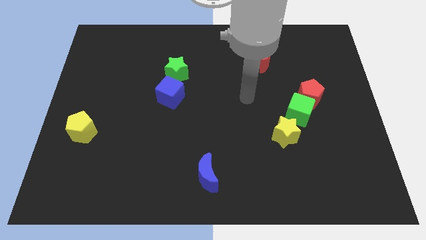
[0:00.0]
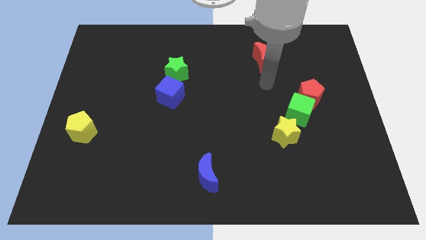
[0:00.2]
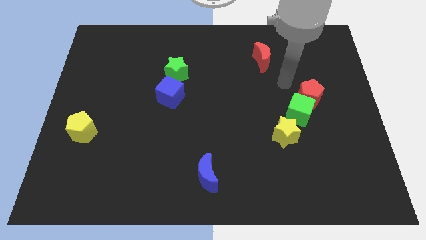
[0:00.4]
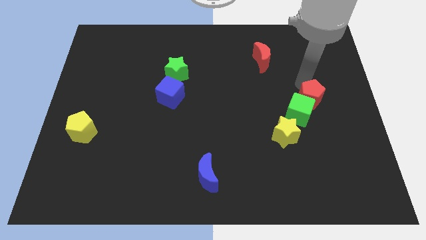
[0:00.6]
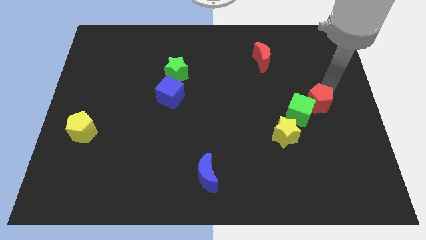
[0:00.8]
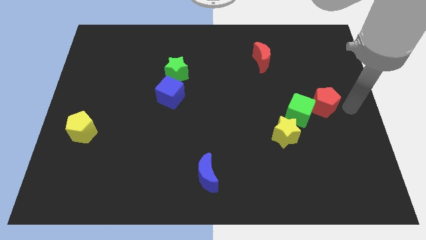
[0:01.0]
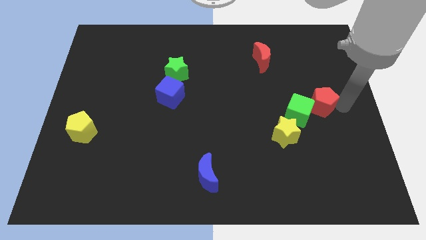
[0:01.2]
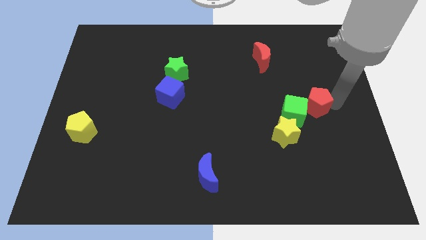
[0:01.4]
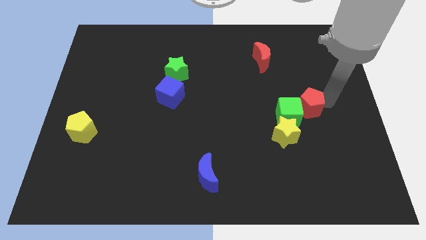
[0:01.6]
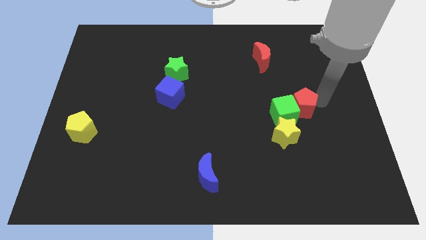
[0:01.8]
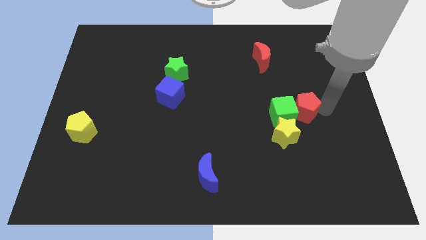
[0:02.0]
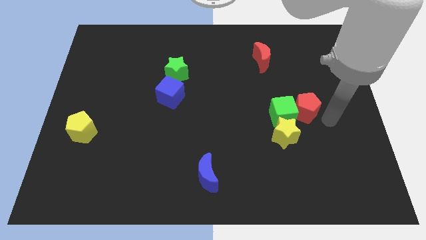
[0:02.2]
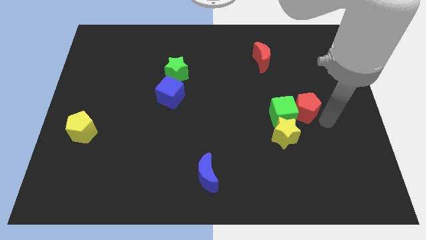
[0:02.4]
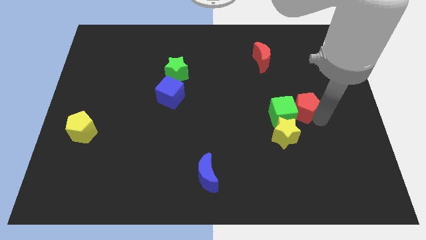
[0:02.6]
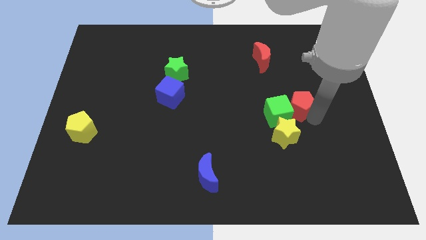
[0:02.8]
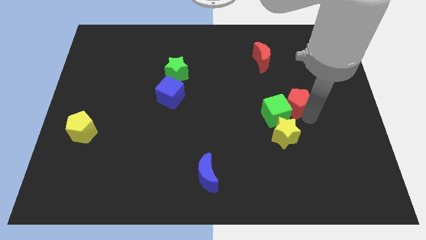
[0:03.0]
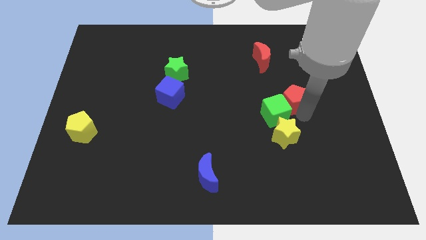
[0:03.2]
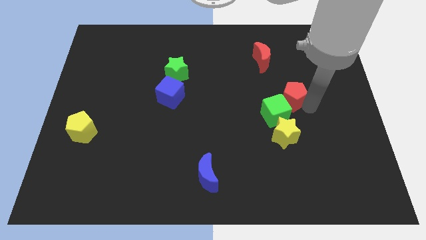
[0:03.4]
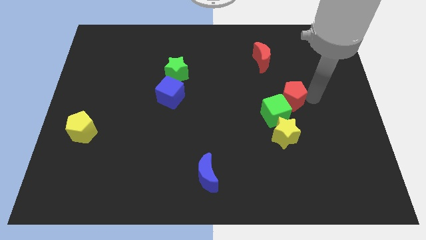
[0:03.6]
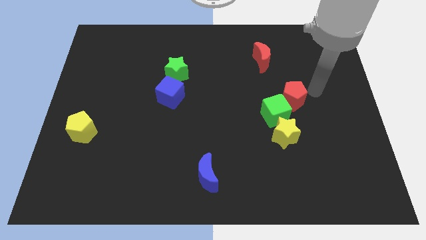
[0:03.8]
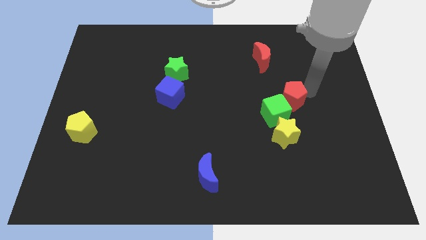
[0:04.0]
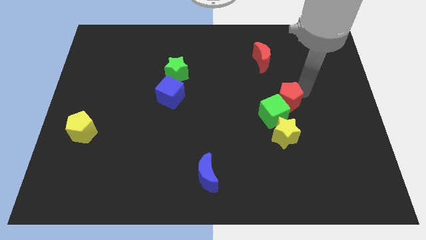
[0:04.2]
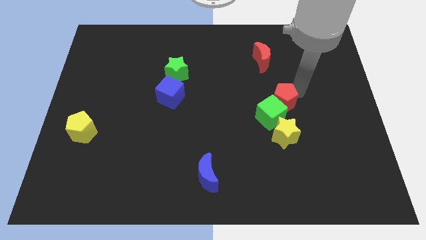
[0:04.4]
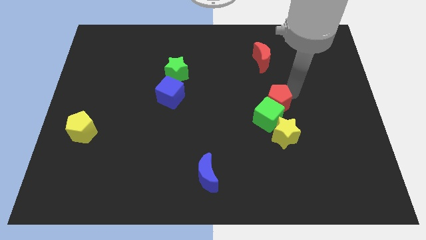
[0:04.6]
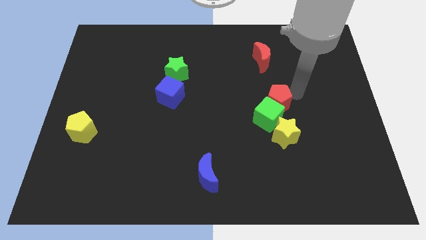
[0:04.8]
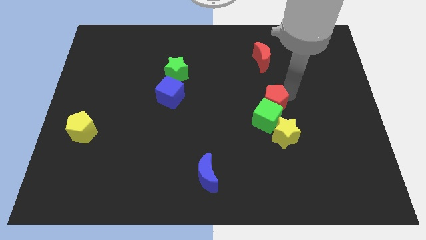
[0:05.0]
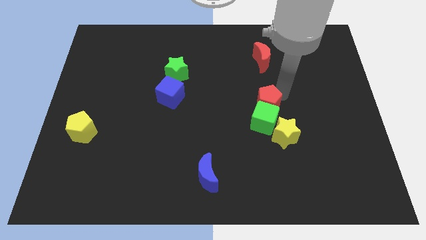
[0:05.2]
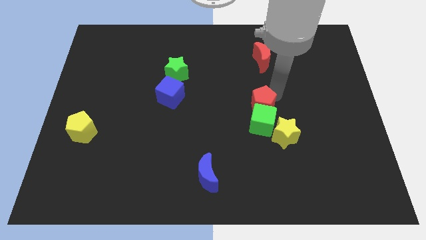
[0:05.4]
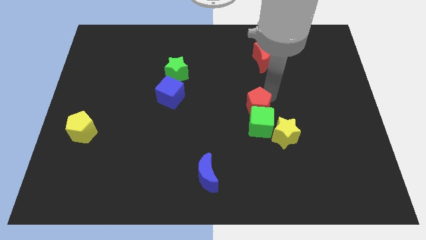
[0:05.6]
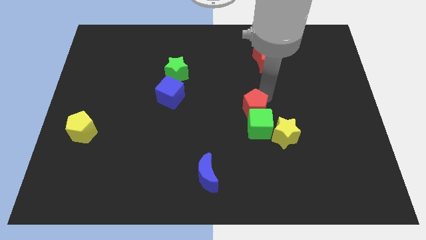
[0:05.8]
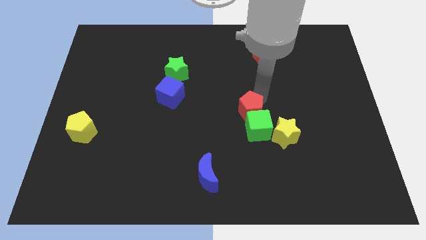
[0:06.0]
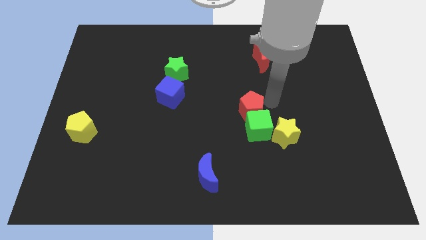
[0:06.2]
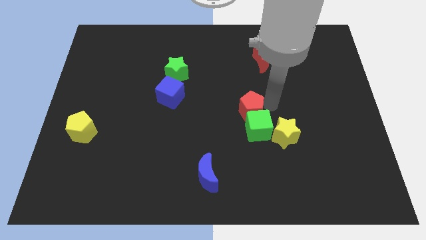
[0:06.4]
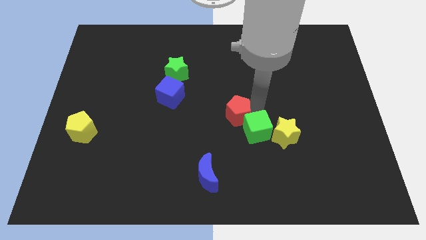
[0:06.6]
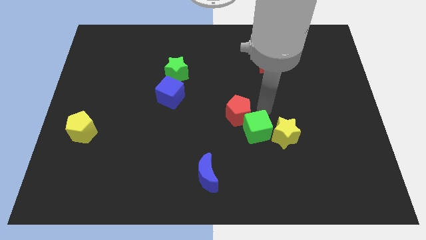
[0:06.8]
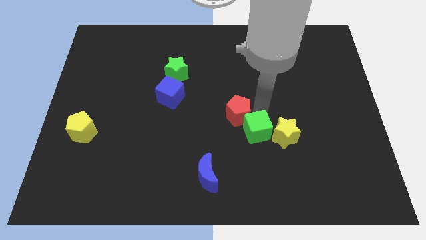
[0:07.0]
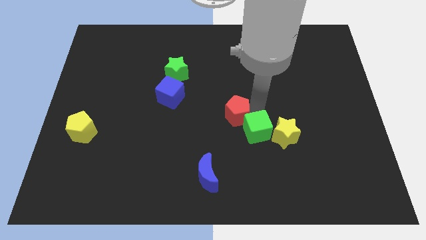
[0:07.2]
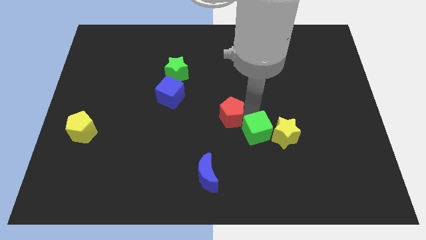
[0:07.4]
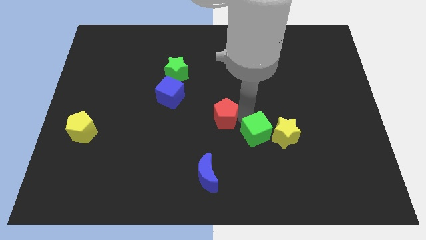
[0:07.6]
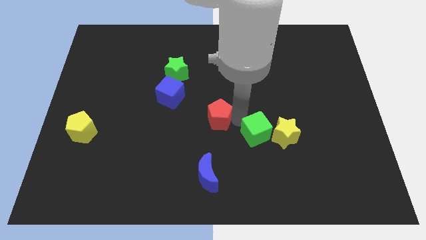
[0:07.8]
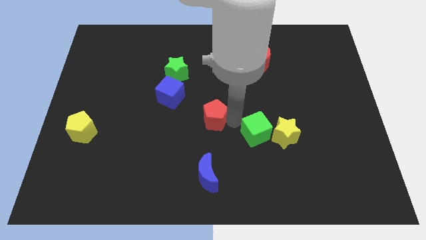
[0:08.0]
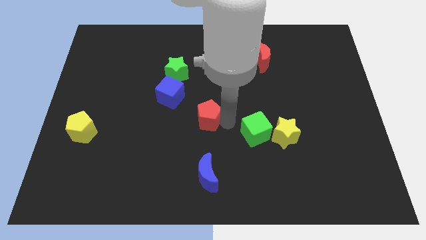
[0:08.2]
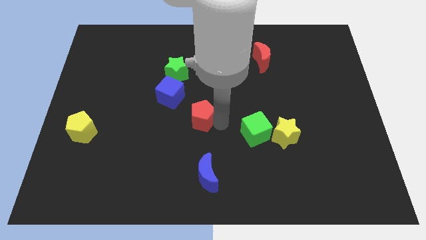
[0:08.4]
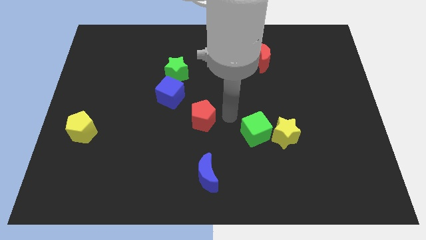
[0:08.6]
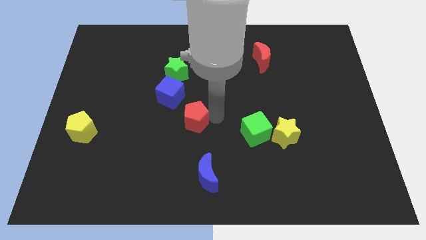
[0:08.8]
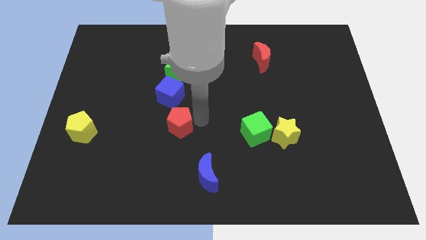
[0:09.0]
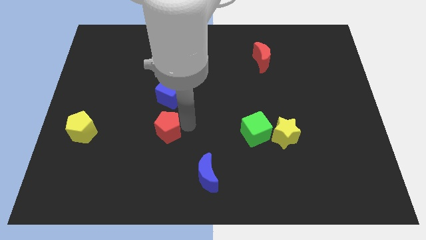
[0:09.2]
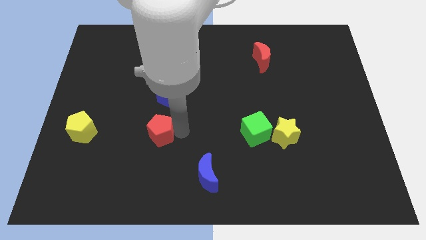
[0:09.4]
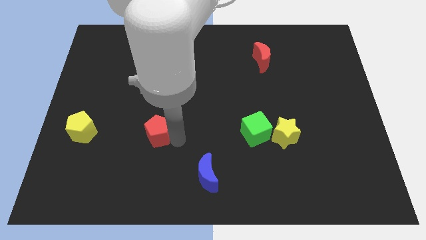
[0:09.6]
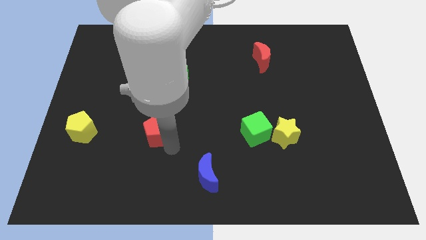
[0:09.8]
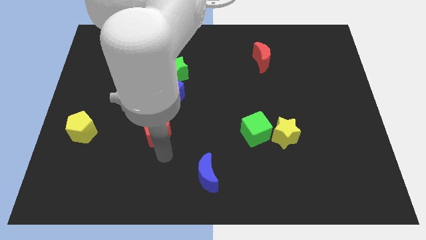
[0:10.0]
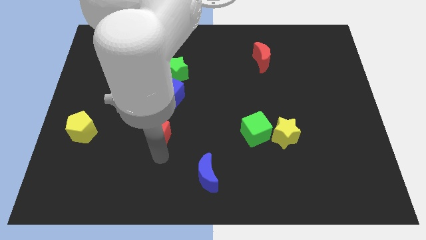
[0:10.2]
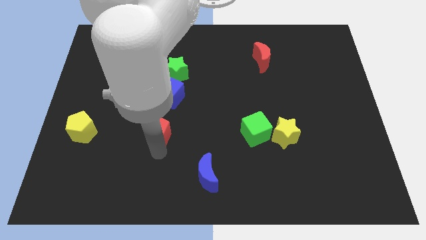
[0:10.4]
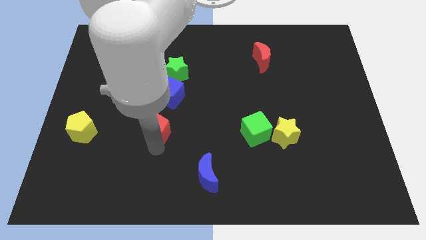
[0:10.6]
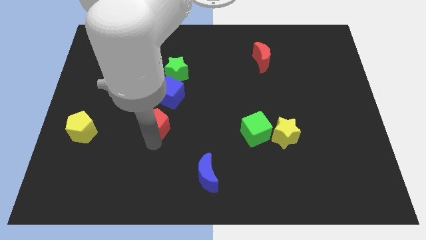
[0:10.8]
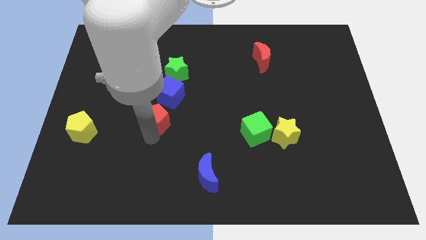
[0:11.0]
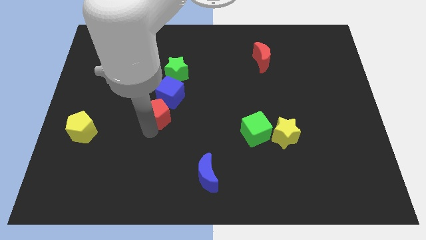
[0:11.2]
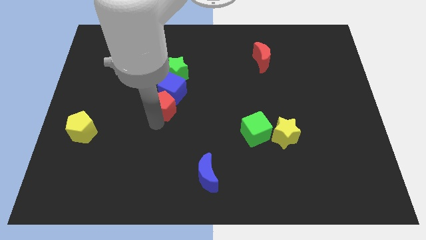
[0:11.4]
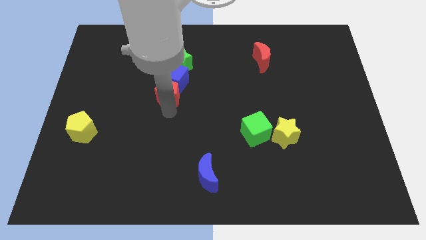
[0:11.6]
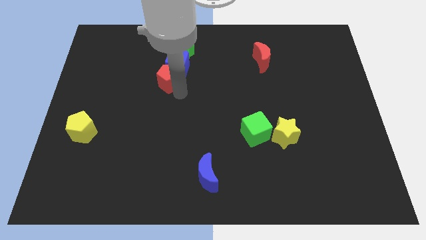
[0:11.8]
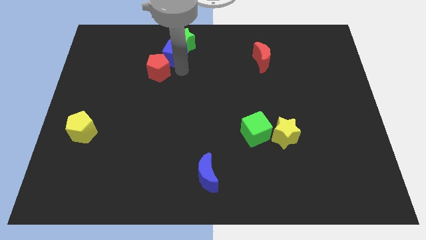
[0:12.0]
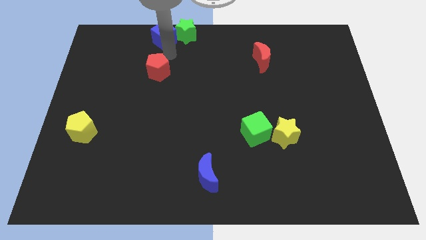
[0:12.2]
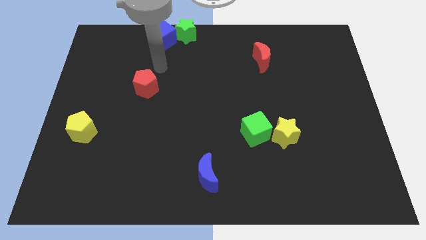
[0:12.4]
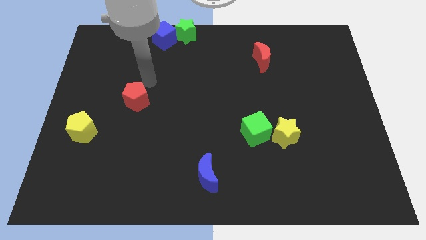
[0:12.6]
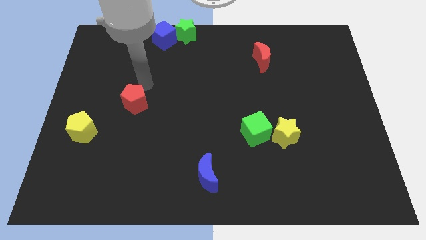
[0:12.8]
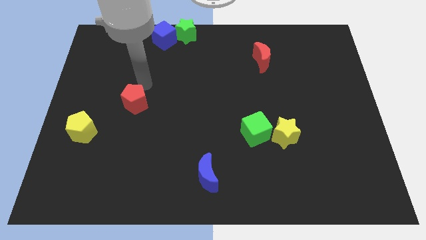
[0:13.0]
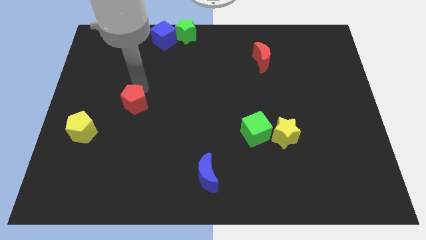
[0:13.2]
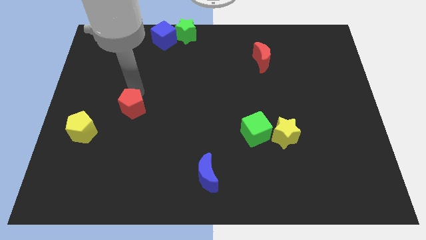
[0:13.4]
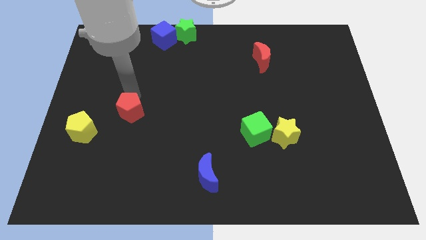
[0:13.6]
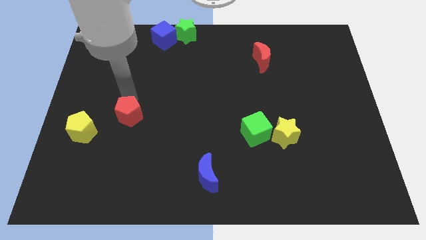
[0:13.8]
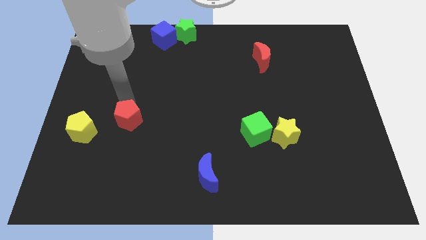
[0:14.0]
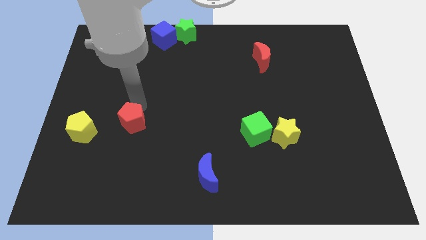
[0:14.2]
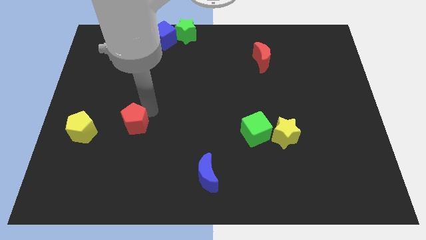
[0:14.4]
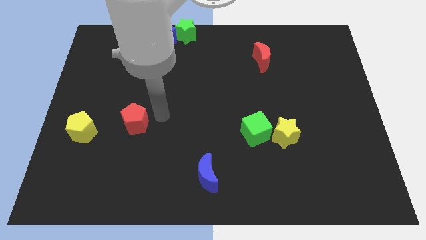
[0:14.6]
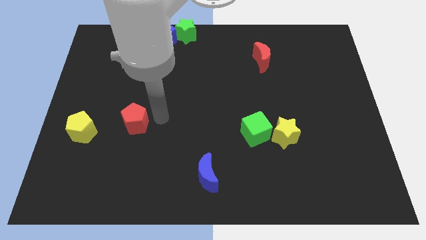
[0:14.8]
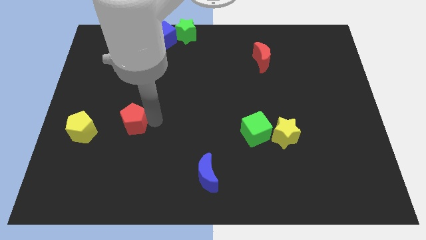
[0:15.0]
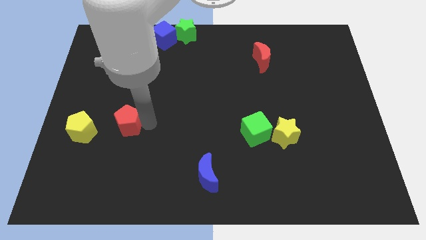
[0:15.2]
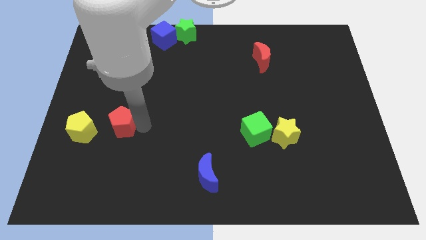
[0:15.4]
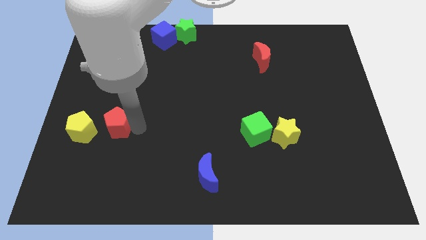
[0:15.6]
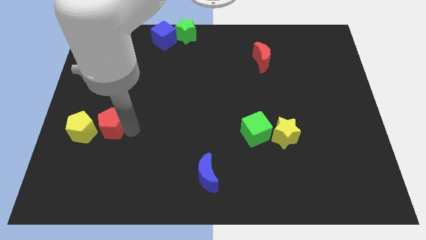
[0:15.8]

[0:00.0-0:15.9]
put the red pentagon close to the yellow pentagon
